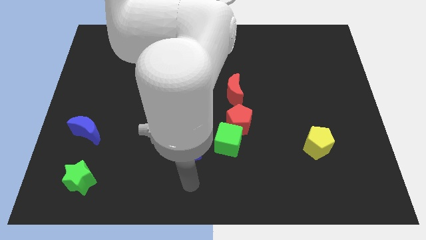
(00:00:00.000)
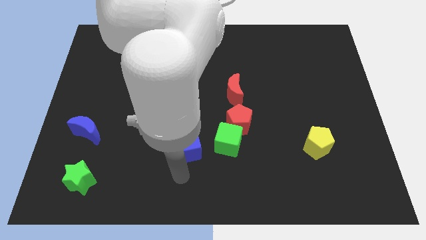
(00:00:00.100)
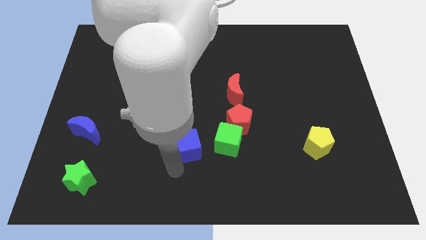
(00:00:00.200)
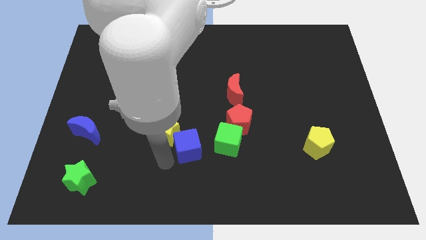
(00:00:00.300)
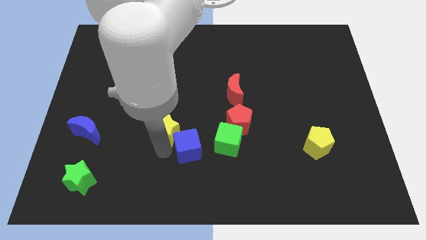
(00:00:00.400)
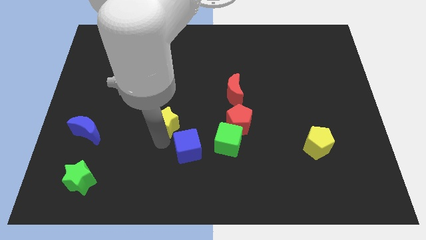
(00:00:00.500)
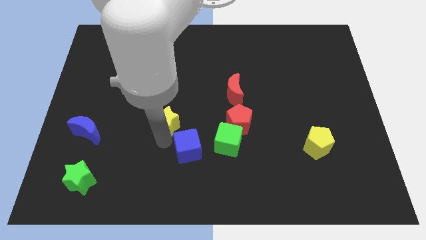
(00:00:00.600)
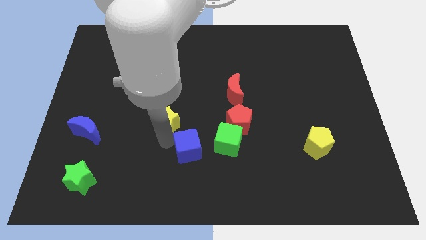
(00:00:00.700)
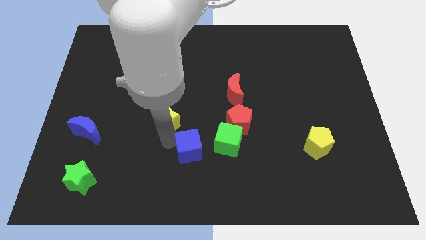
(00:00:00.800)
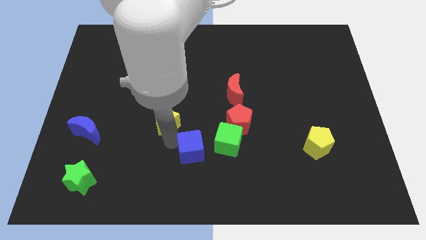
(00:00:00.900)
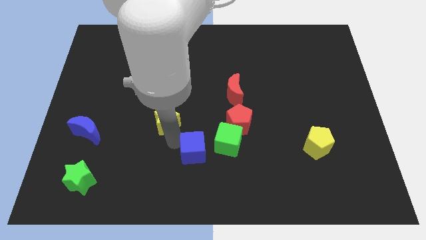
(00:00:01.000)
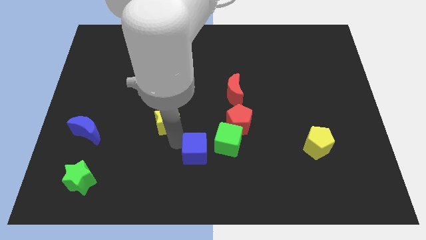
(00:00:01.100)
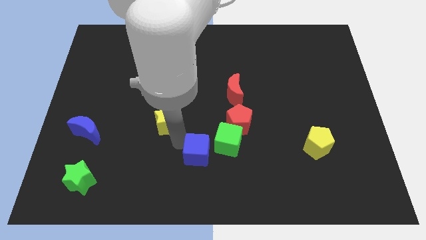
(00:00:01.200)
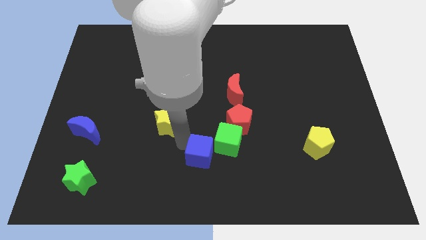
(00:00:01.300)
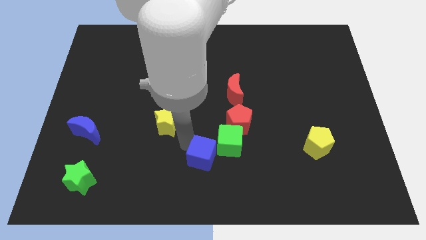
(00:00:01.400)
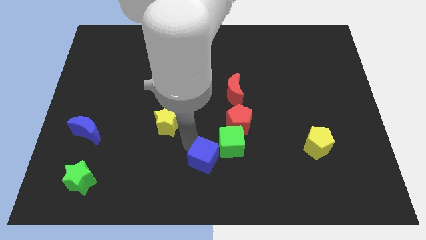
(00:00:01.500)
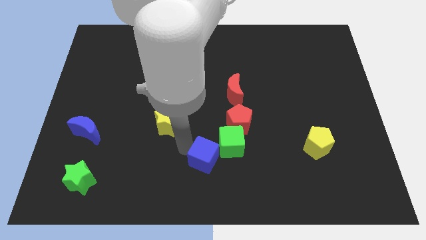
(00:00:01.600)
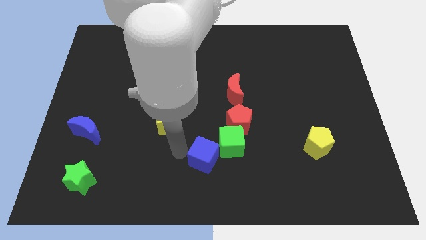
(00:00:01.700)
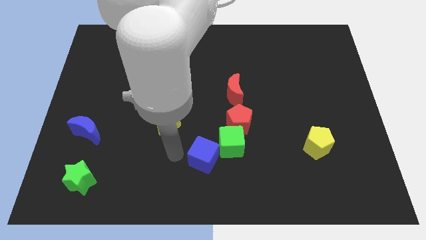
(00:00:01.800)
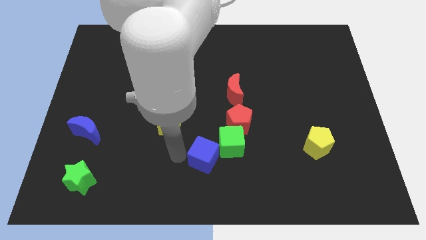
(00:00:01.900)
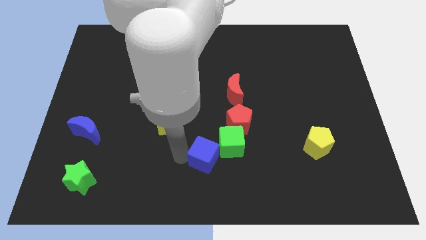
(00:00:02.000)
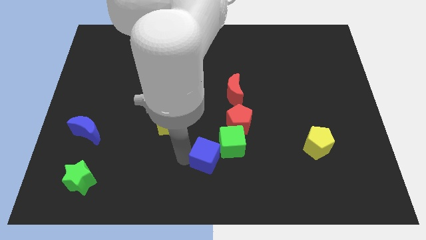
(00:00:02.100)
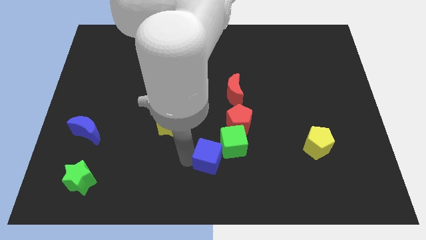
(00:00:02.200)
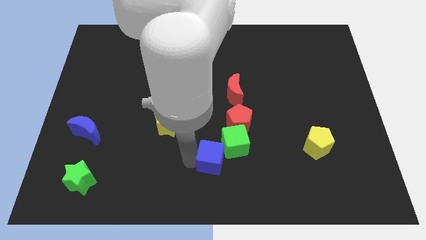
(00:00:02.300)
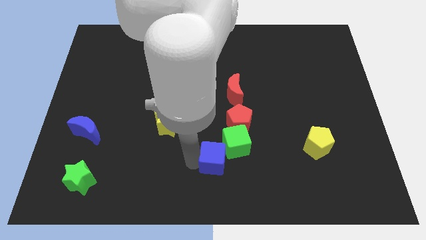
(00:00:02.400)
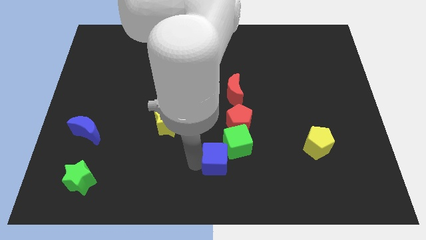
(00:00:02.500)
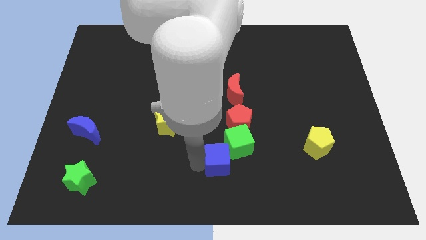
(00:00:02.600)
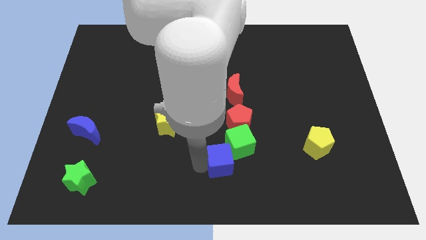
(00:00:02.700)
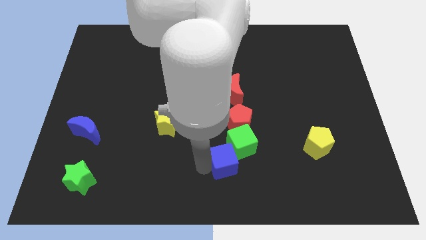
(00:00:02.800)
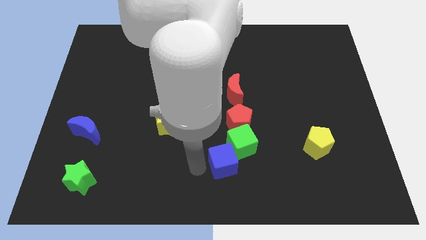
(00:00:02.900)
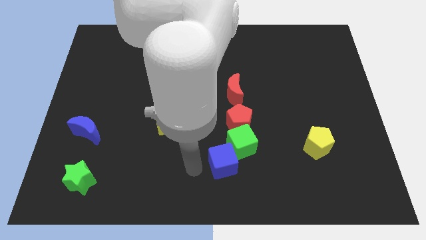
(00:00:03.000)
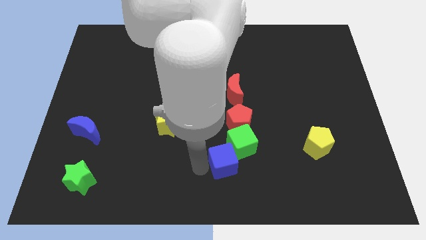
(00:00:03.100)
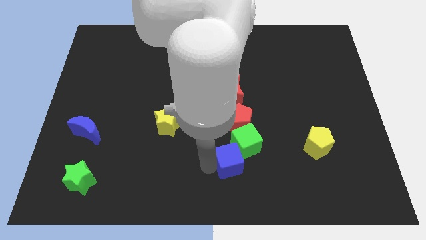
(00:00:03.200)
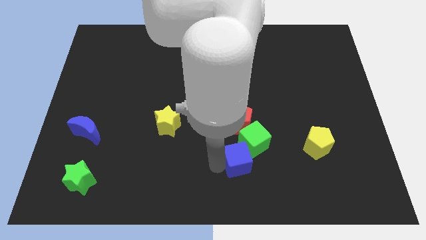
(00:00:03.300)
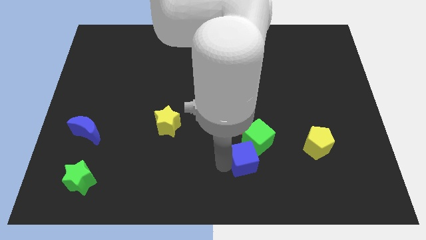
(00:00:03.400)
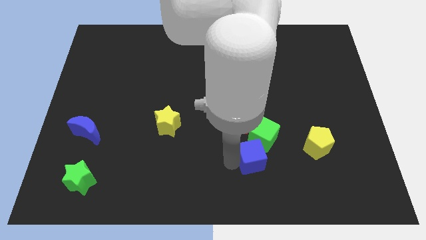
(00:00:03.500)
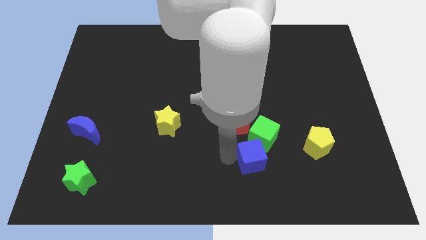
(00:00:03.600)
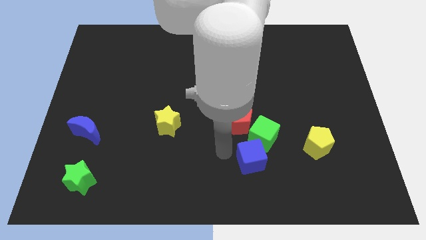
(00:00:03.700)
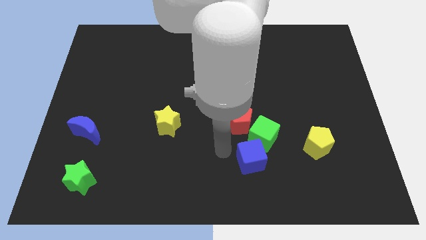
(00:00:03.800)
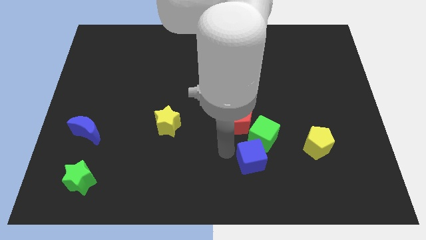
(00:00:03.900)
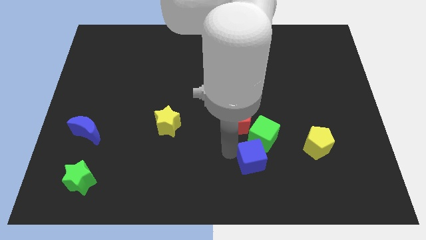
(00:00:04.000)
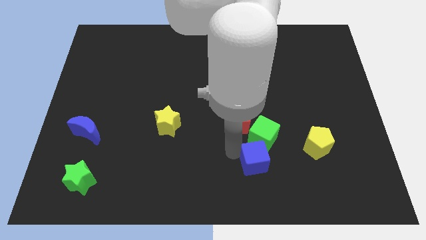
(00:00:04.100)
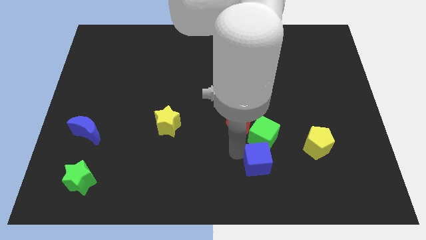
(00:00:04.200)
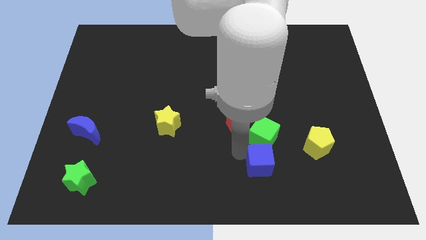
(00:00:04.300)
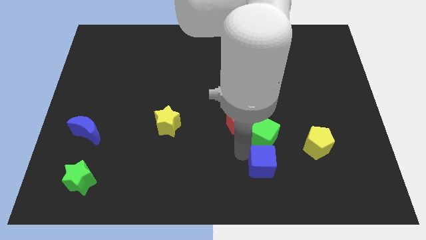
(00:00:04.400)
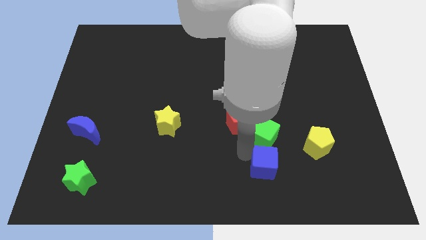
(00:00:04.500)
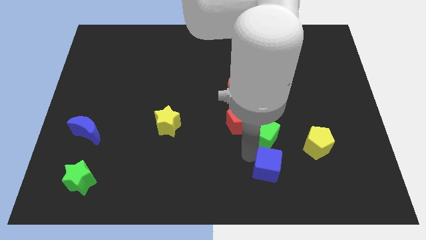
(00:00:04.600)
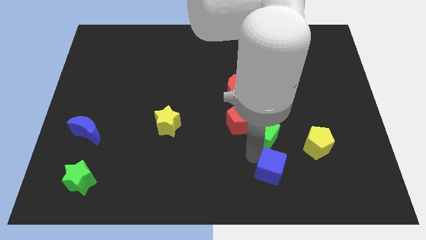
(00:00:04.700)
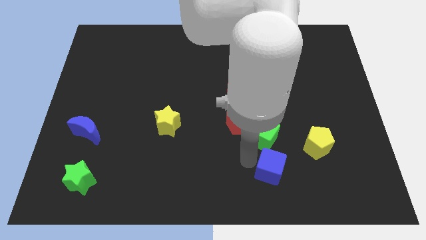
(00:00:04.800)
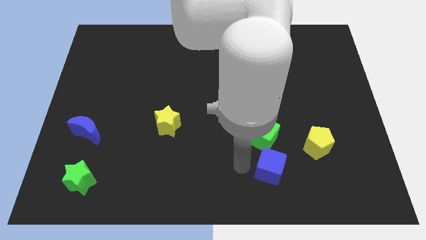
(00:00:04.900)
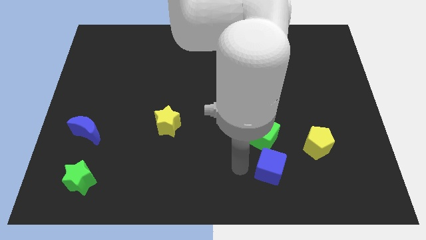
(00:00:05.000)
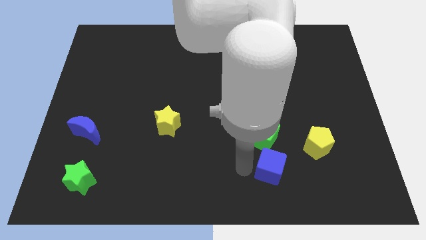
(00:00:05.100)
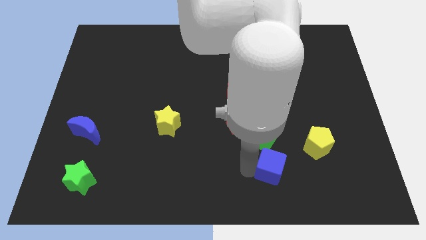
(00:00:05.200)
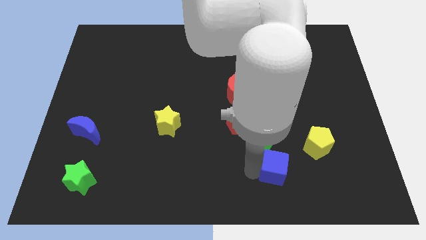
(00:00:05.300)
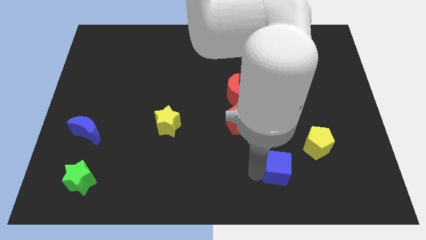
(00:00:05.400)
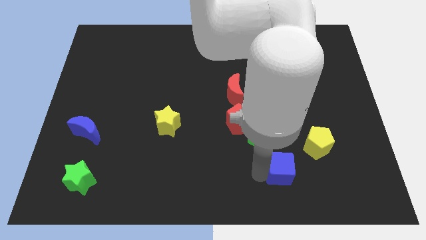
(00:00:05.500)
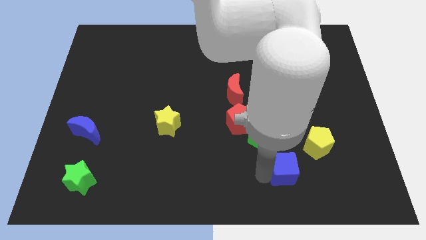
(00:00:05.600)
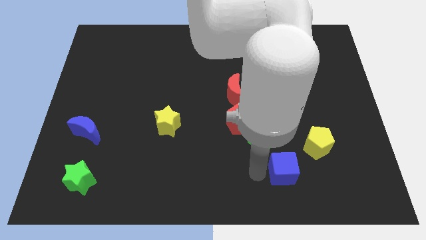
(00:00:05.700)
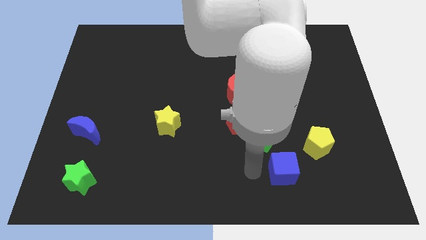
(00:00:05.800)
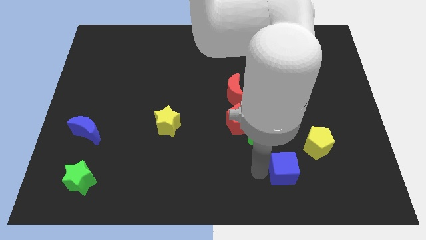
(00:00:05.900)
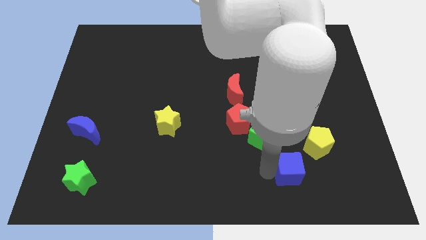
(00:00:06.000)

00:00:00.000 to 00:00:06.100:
push the blue cube right

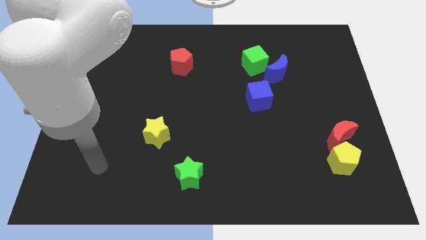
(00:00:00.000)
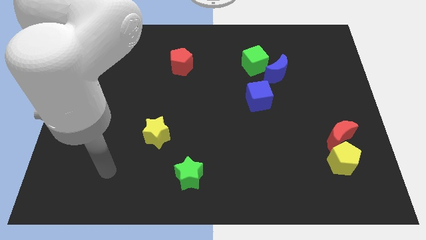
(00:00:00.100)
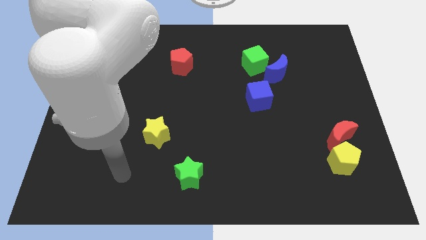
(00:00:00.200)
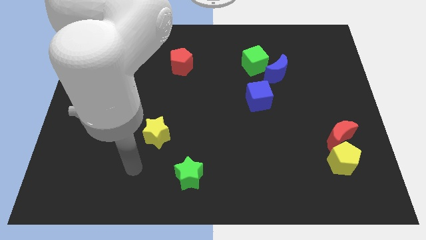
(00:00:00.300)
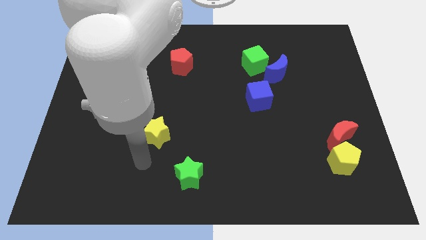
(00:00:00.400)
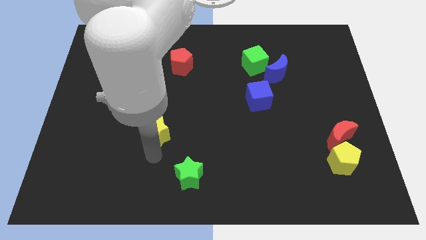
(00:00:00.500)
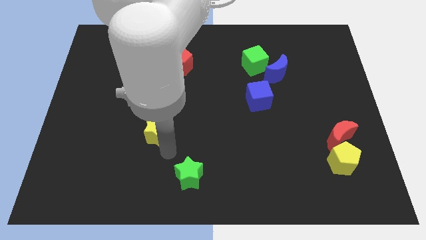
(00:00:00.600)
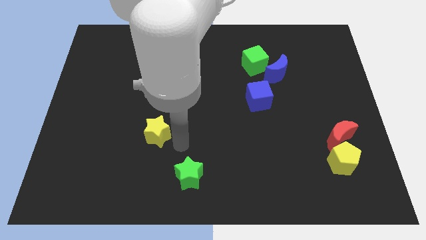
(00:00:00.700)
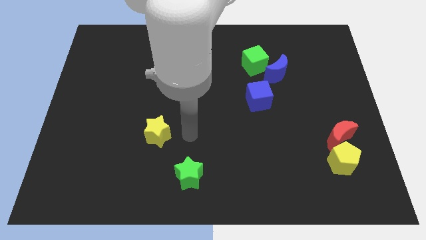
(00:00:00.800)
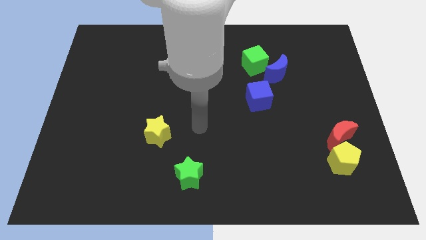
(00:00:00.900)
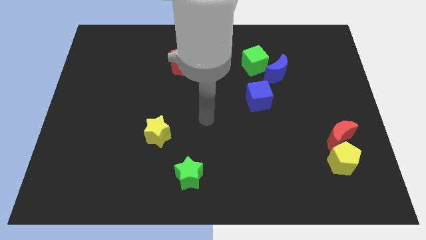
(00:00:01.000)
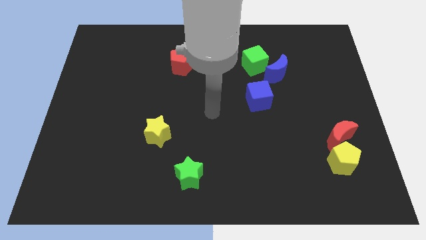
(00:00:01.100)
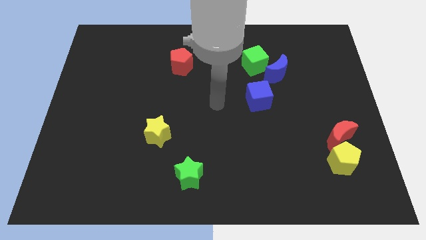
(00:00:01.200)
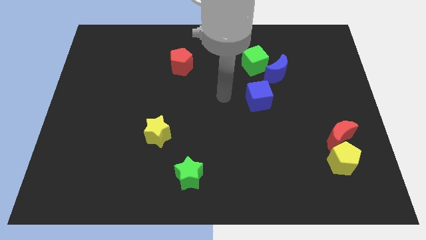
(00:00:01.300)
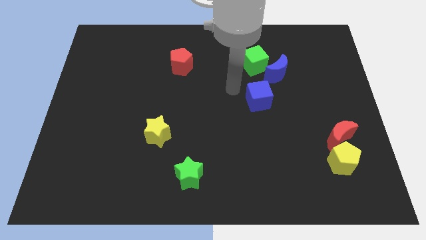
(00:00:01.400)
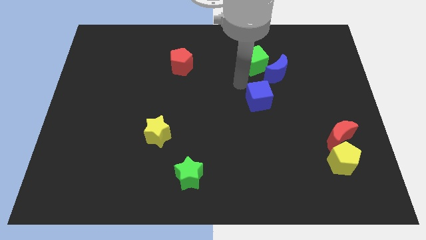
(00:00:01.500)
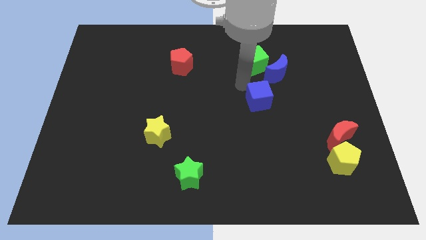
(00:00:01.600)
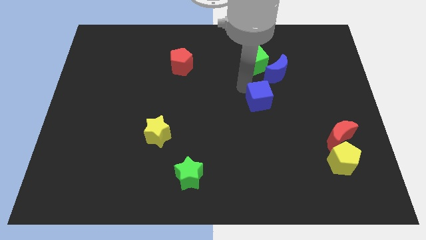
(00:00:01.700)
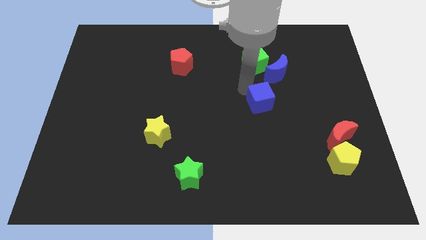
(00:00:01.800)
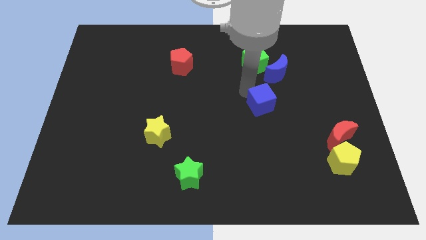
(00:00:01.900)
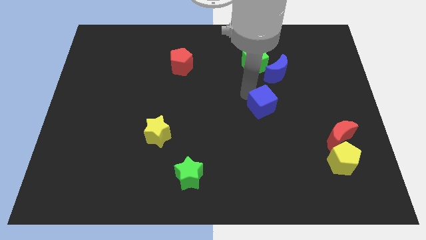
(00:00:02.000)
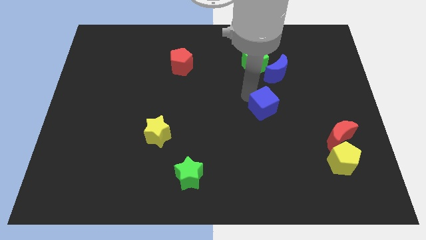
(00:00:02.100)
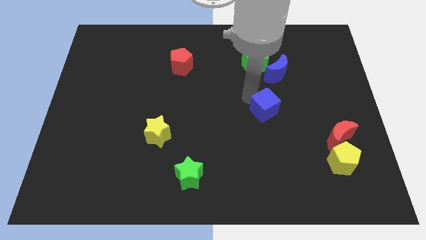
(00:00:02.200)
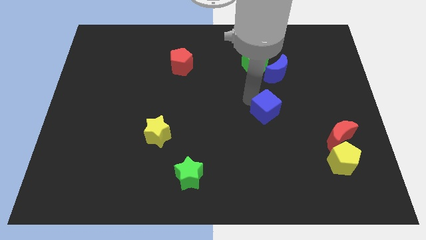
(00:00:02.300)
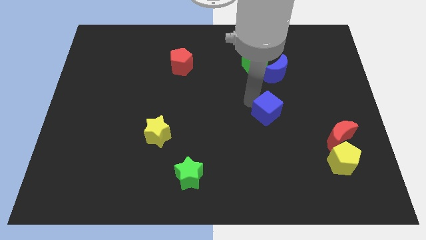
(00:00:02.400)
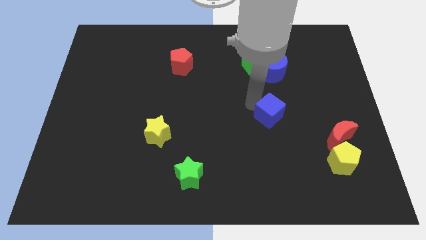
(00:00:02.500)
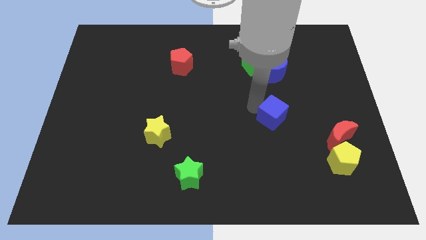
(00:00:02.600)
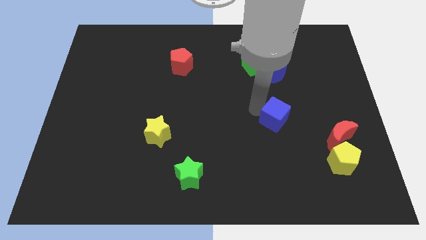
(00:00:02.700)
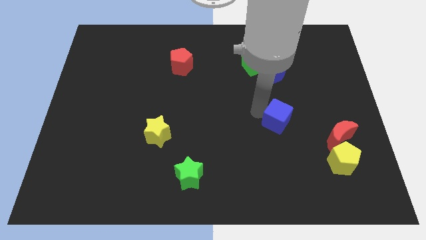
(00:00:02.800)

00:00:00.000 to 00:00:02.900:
move the blue cube downwards and then to the right a bit
